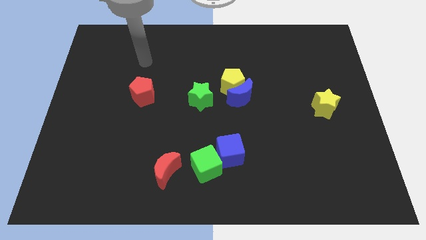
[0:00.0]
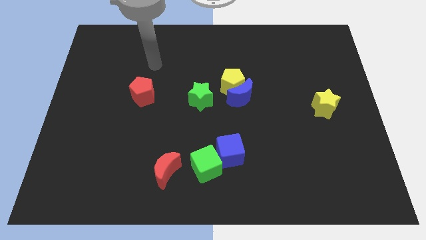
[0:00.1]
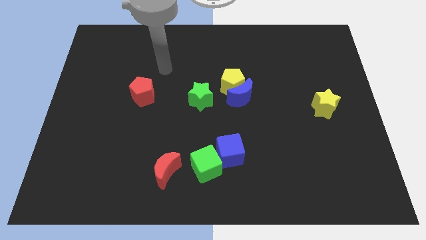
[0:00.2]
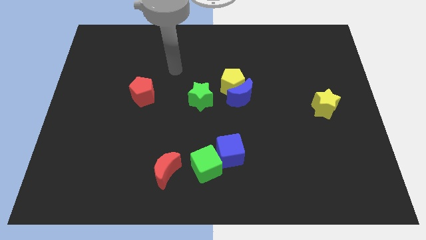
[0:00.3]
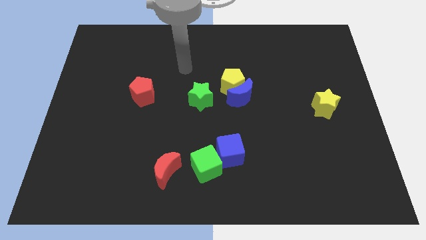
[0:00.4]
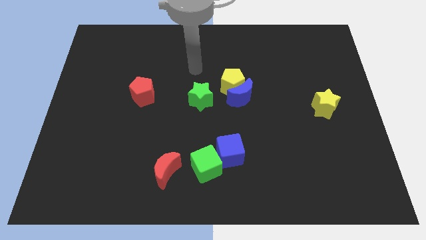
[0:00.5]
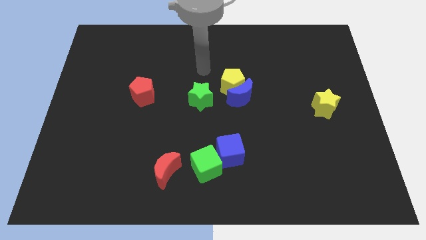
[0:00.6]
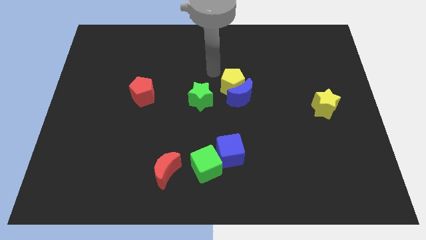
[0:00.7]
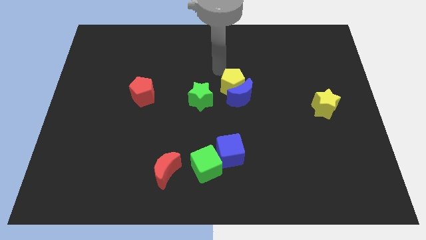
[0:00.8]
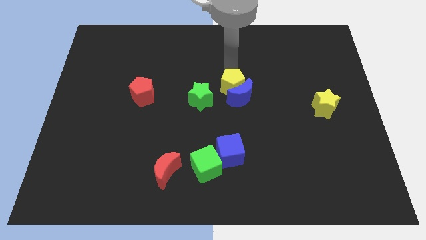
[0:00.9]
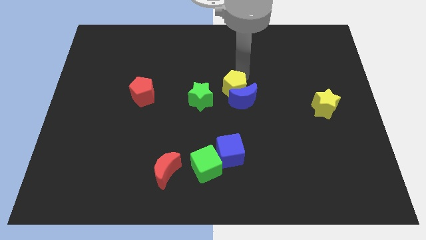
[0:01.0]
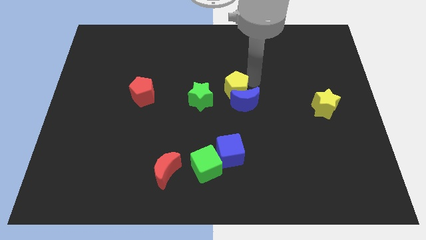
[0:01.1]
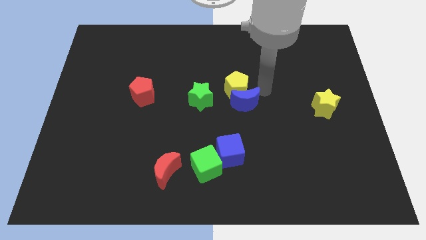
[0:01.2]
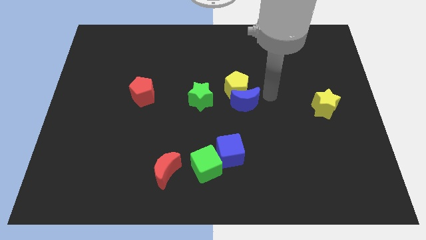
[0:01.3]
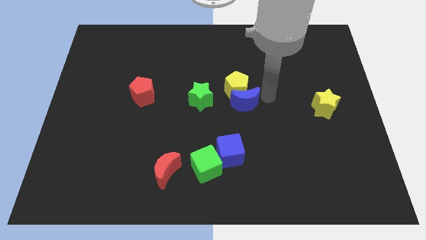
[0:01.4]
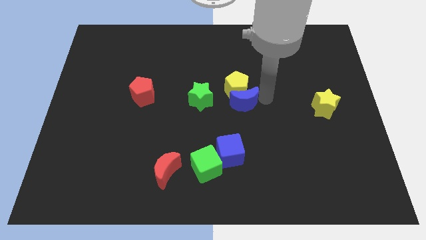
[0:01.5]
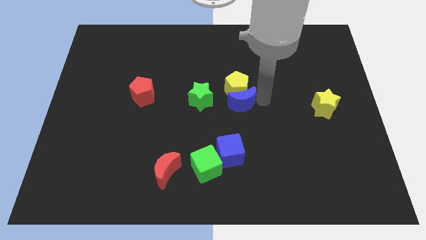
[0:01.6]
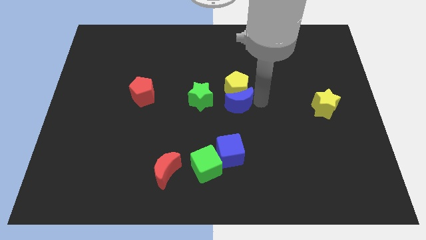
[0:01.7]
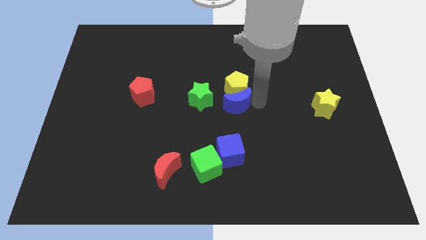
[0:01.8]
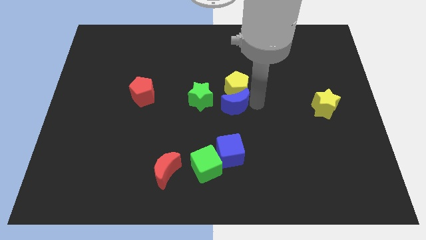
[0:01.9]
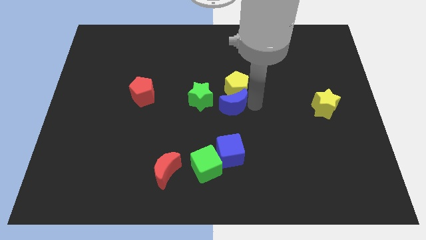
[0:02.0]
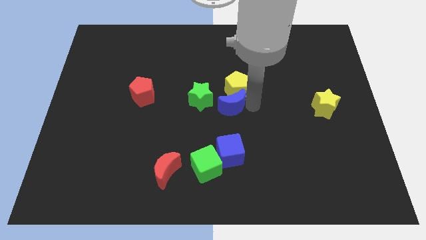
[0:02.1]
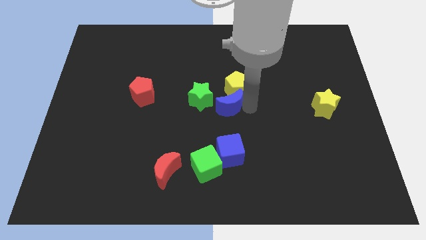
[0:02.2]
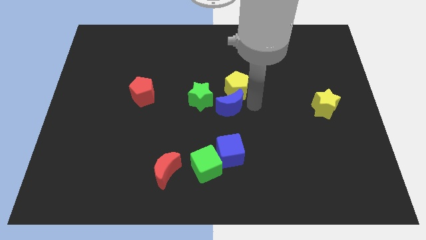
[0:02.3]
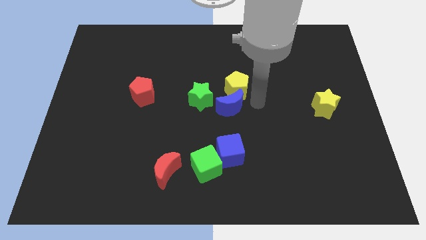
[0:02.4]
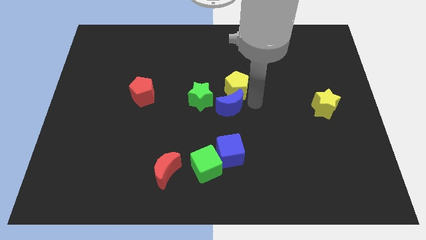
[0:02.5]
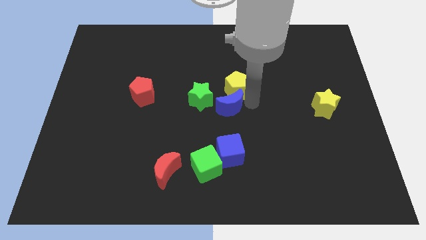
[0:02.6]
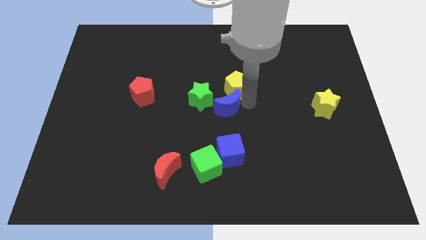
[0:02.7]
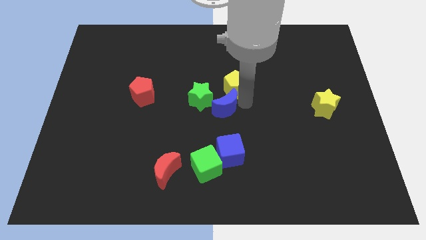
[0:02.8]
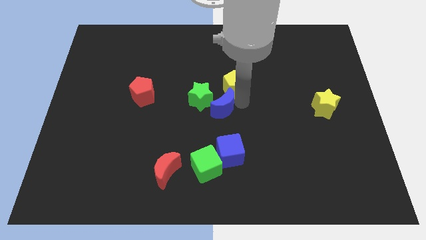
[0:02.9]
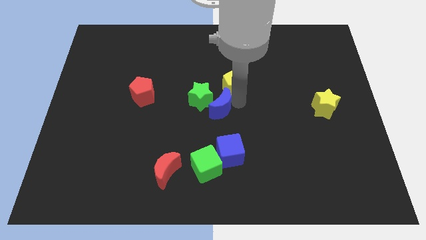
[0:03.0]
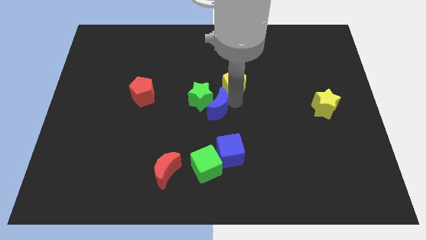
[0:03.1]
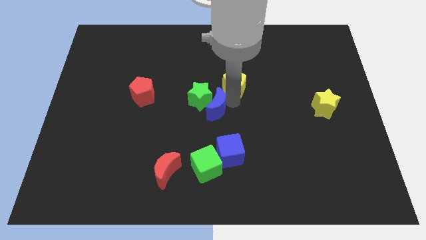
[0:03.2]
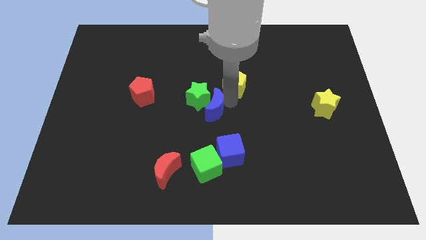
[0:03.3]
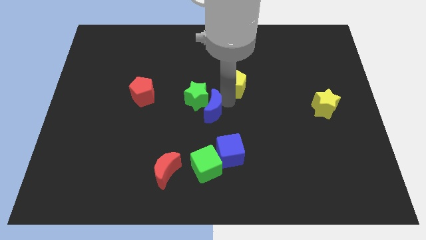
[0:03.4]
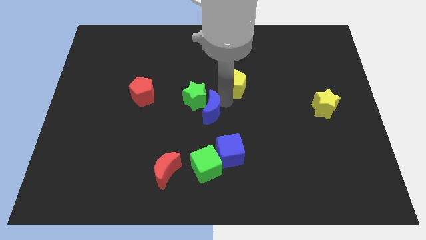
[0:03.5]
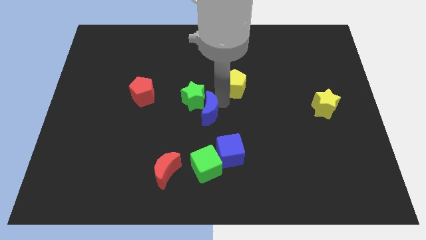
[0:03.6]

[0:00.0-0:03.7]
push the blue moon a bit left

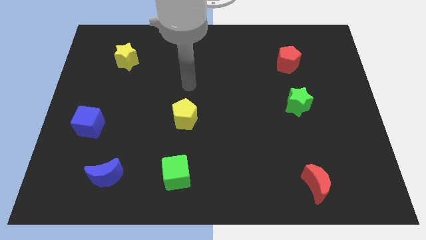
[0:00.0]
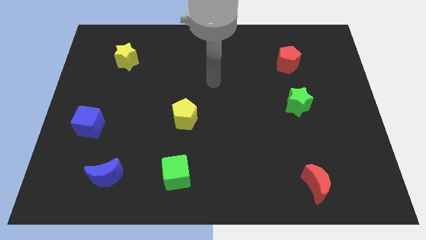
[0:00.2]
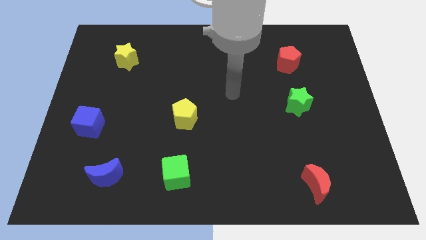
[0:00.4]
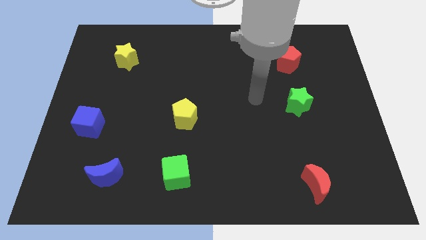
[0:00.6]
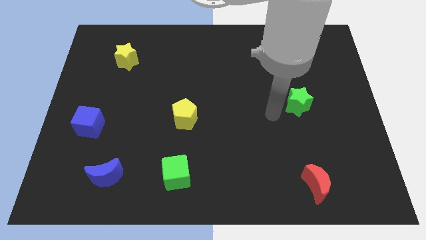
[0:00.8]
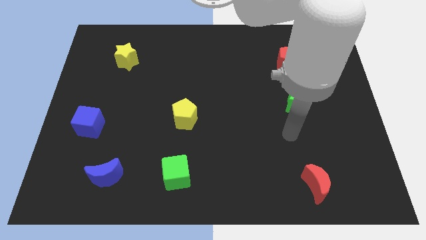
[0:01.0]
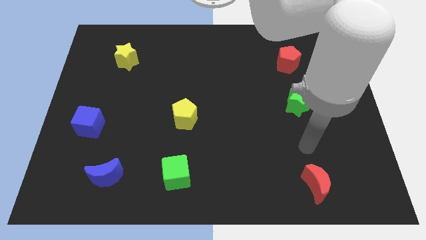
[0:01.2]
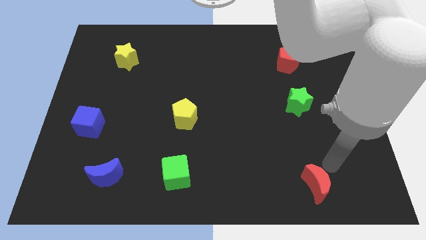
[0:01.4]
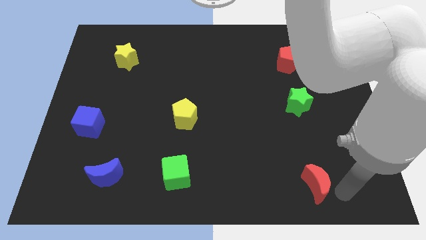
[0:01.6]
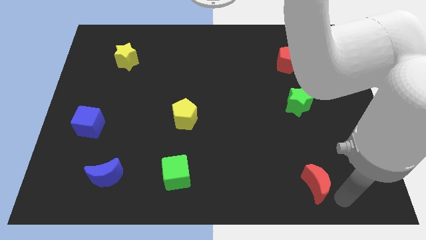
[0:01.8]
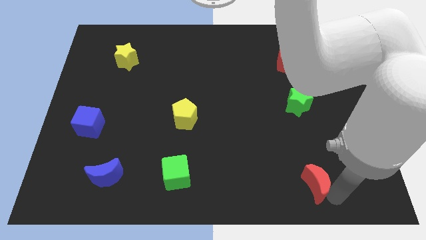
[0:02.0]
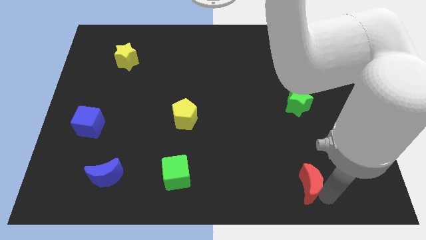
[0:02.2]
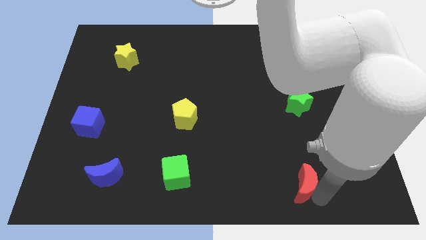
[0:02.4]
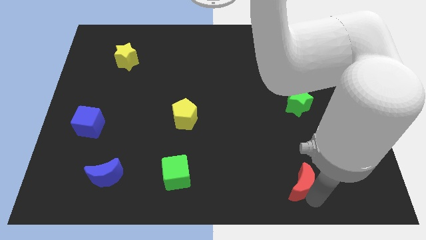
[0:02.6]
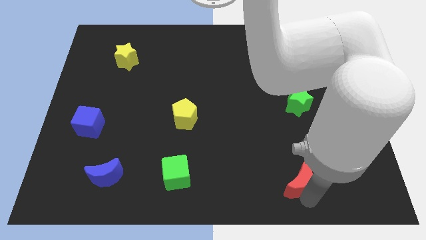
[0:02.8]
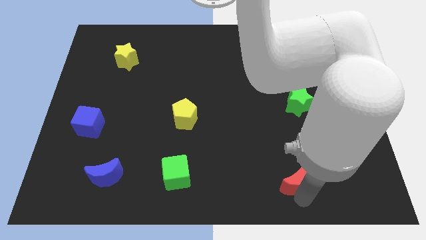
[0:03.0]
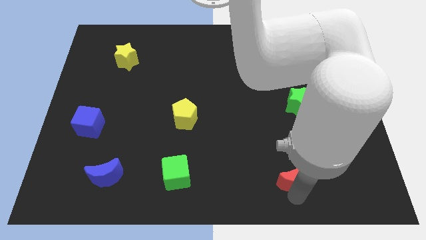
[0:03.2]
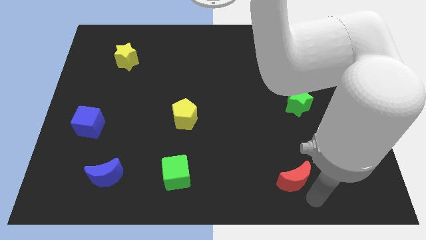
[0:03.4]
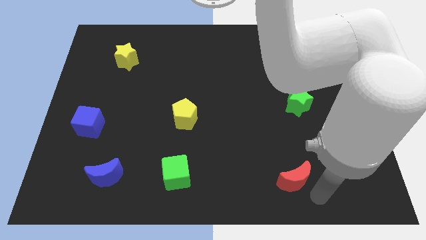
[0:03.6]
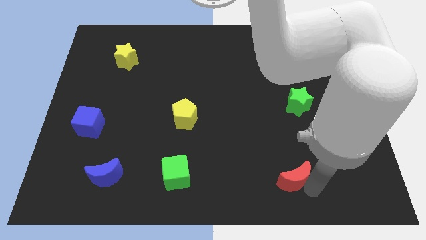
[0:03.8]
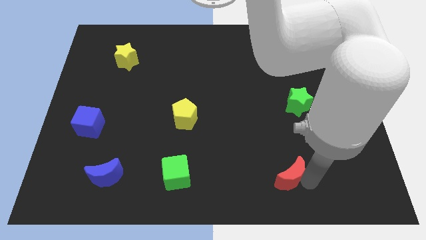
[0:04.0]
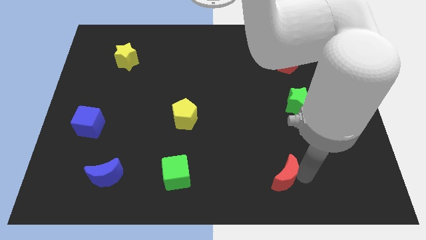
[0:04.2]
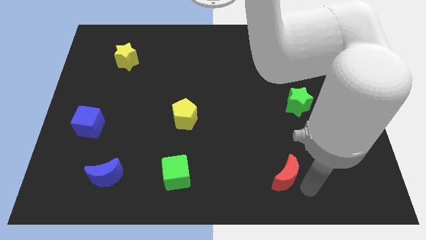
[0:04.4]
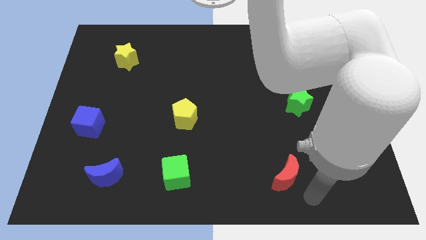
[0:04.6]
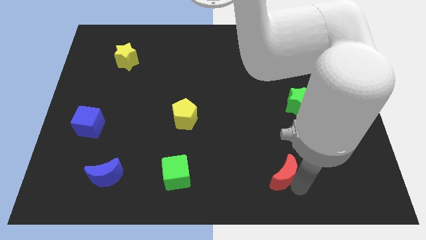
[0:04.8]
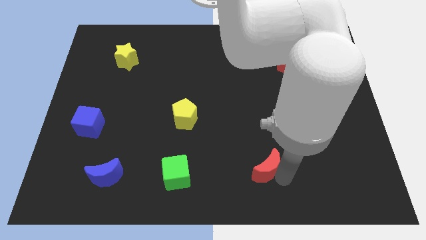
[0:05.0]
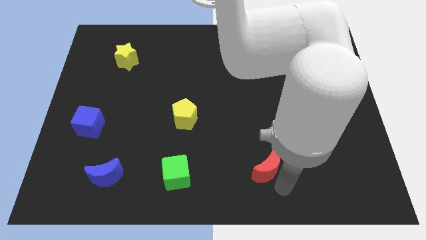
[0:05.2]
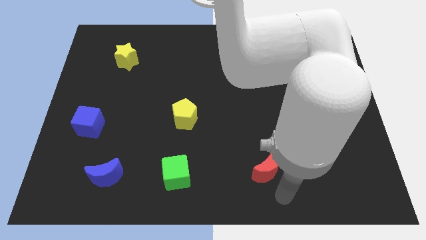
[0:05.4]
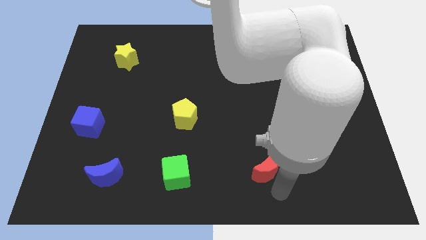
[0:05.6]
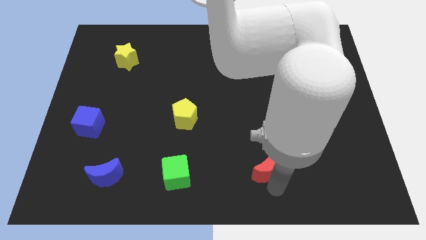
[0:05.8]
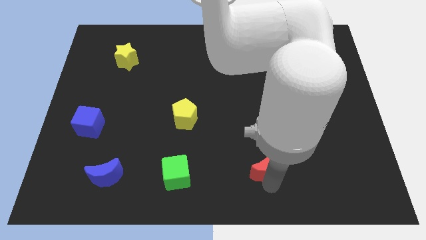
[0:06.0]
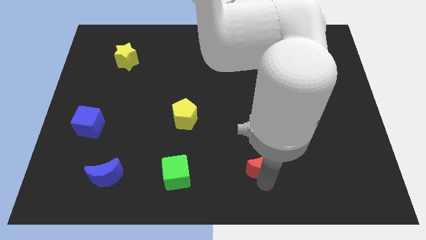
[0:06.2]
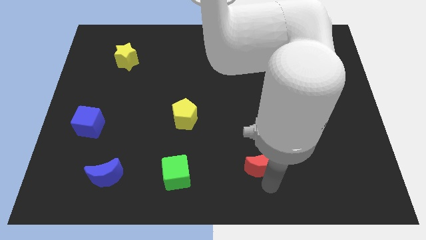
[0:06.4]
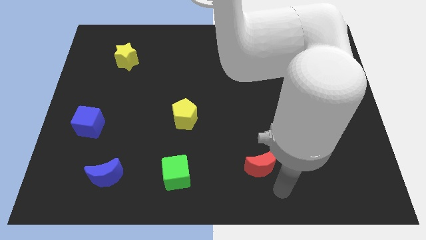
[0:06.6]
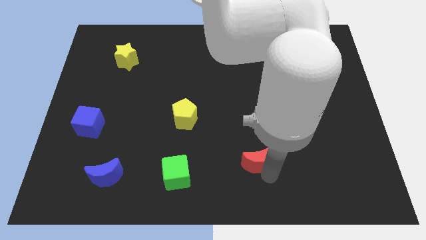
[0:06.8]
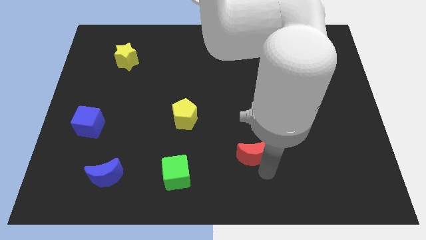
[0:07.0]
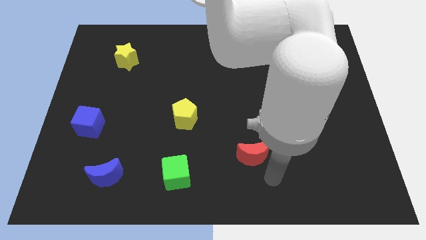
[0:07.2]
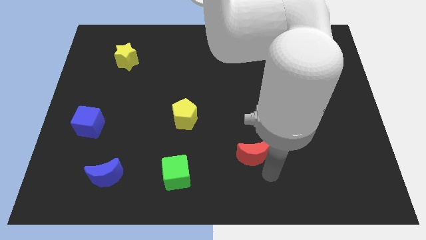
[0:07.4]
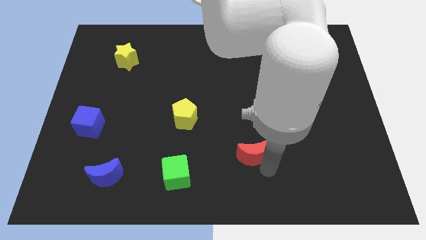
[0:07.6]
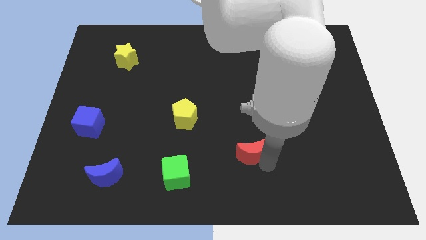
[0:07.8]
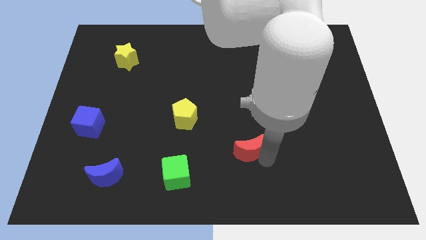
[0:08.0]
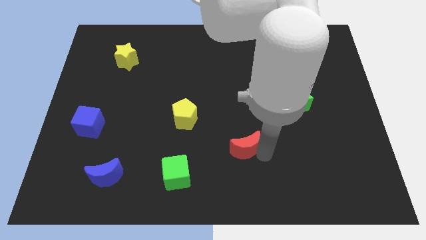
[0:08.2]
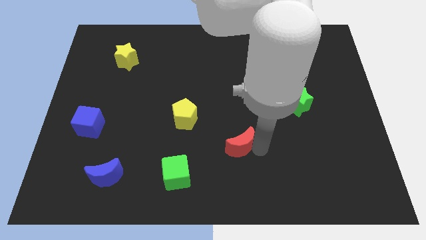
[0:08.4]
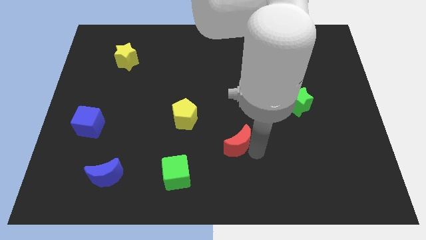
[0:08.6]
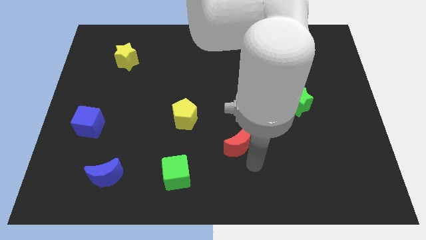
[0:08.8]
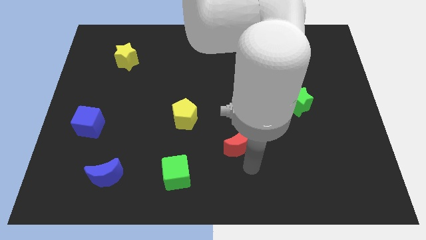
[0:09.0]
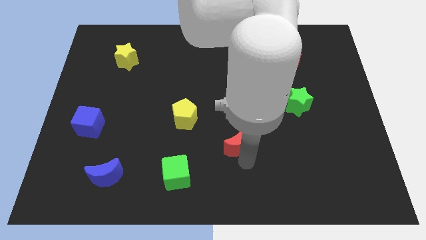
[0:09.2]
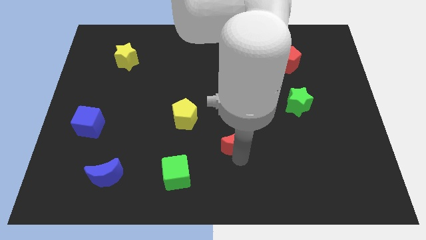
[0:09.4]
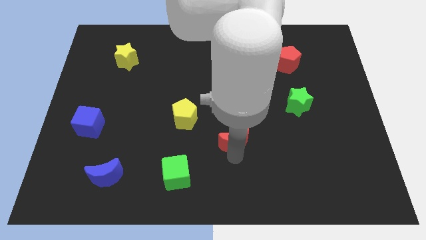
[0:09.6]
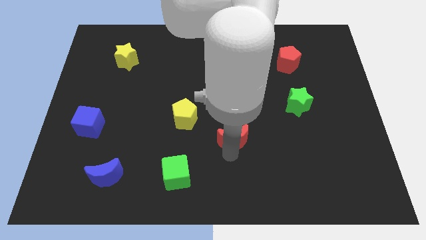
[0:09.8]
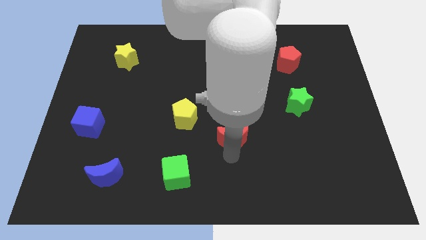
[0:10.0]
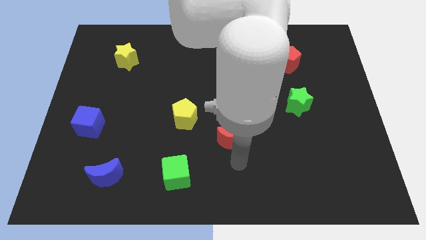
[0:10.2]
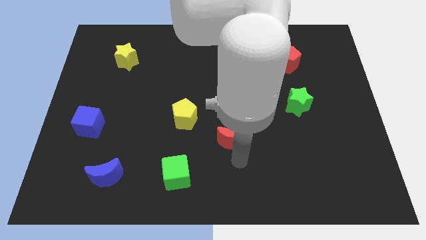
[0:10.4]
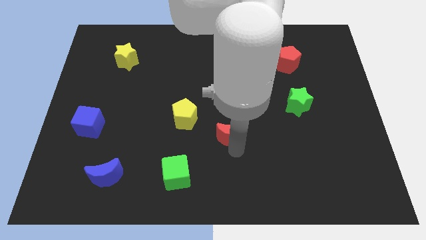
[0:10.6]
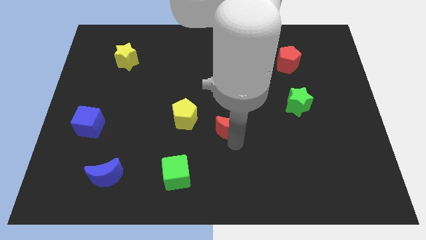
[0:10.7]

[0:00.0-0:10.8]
move the red moon upwards and to the left
